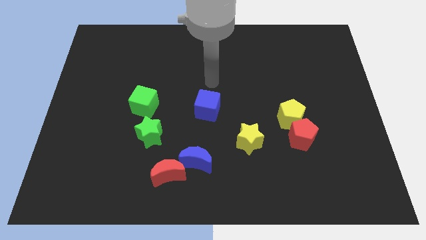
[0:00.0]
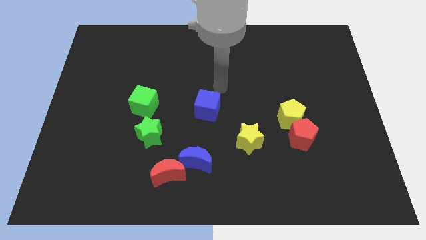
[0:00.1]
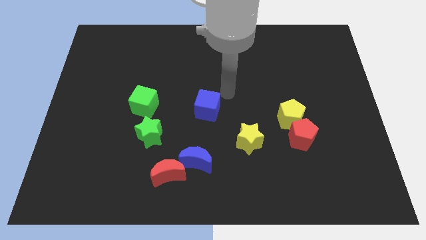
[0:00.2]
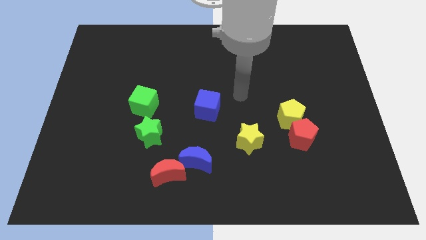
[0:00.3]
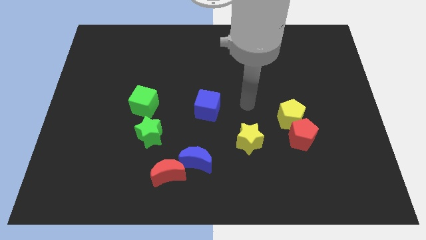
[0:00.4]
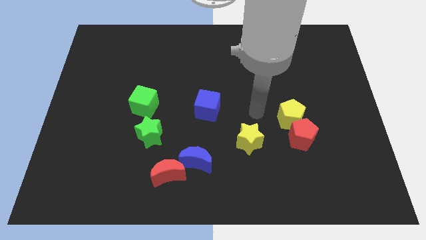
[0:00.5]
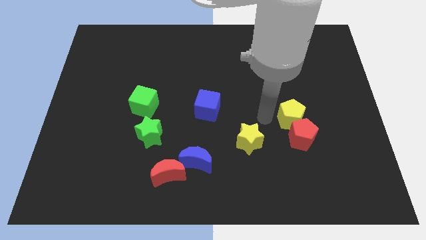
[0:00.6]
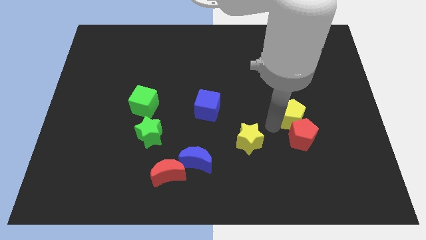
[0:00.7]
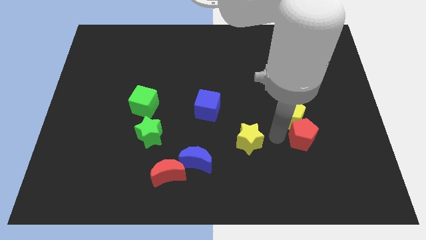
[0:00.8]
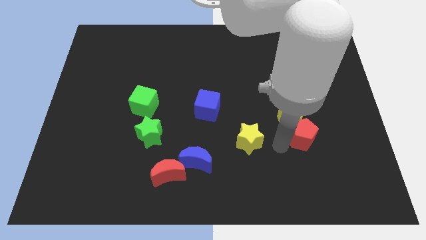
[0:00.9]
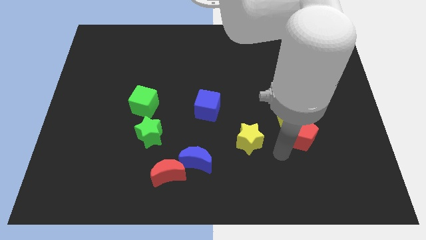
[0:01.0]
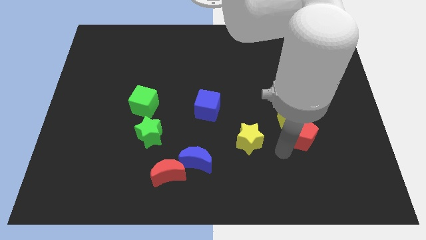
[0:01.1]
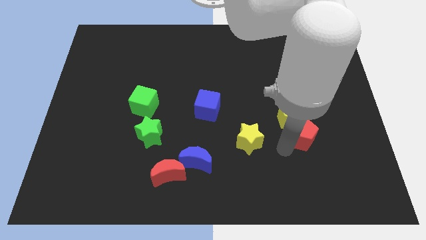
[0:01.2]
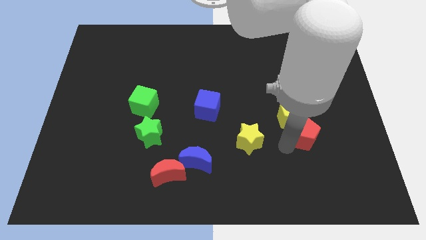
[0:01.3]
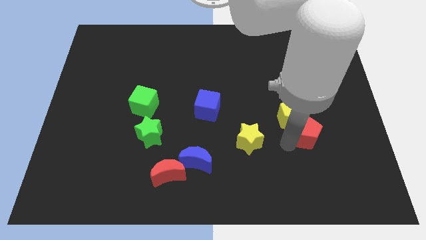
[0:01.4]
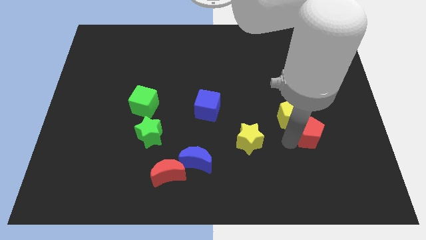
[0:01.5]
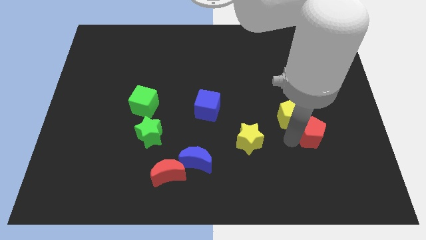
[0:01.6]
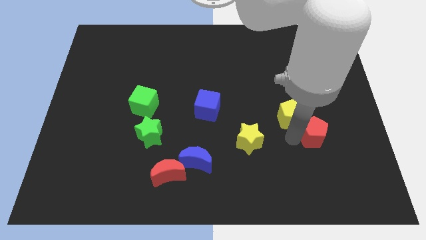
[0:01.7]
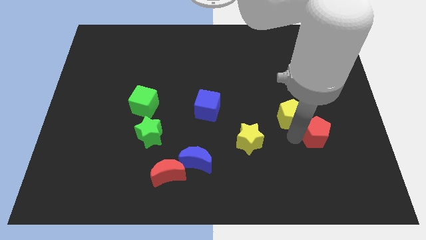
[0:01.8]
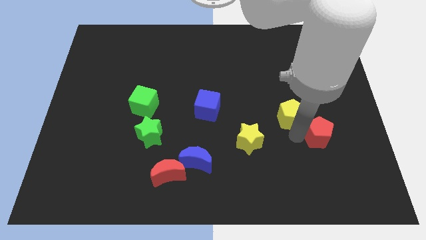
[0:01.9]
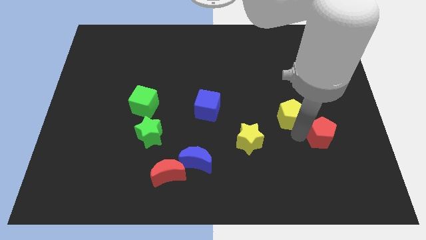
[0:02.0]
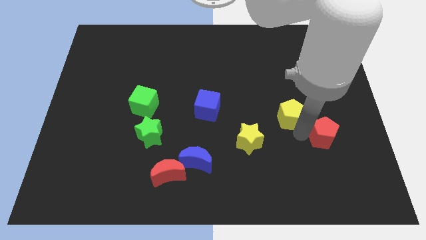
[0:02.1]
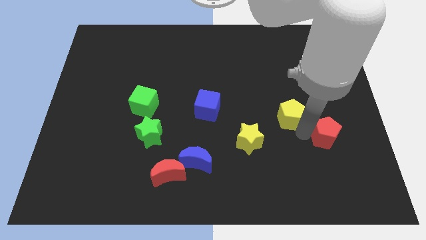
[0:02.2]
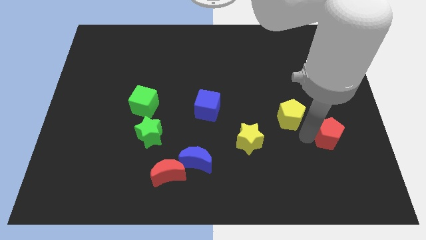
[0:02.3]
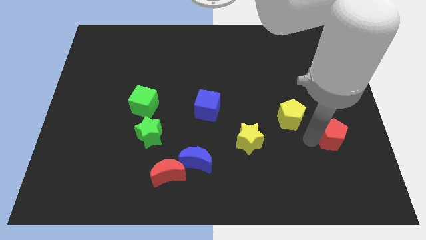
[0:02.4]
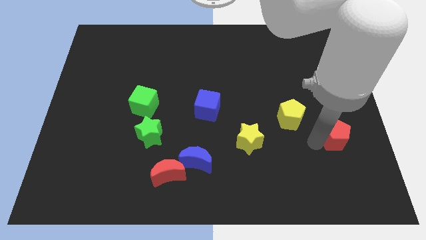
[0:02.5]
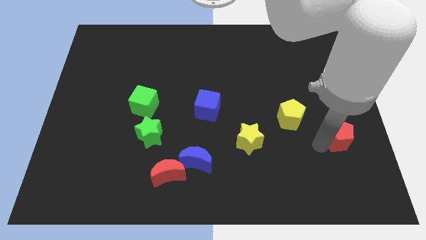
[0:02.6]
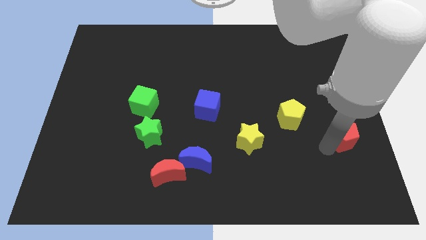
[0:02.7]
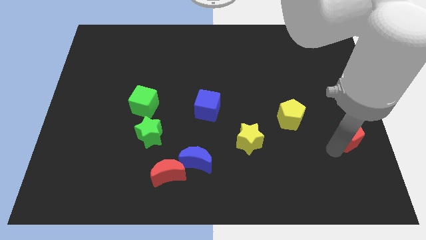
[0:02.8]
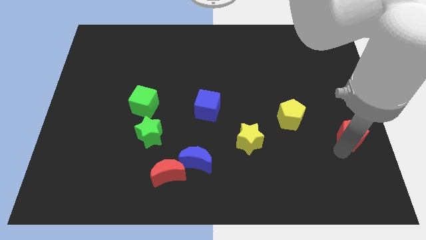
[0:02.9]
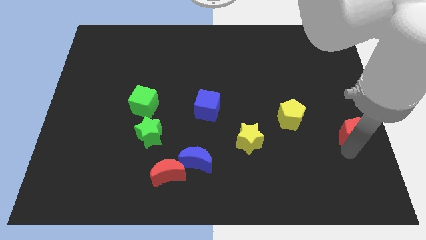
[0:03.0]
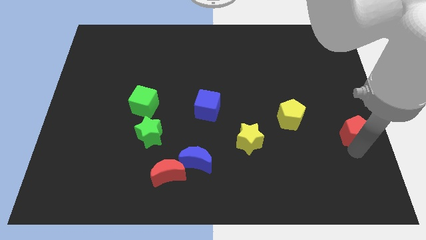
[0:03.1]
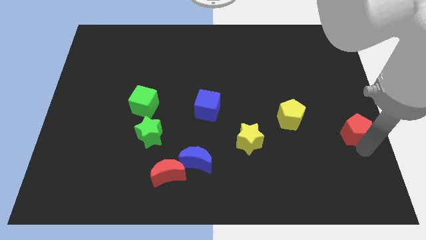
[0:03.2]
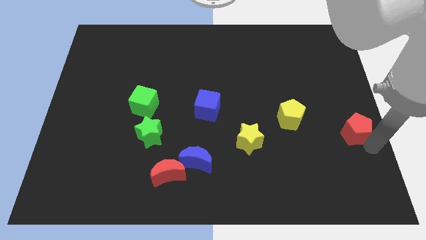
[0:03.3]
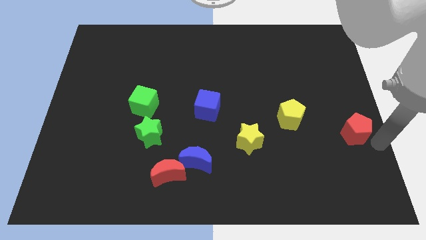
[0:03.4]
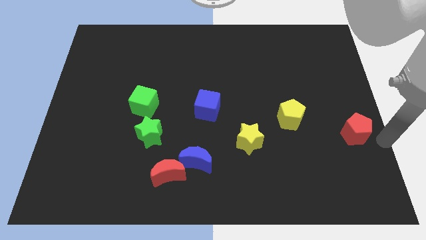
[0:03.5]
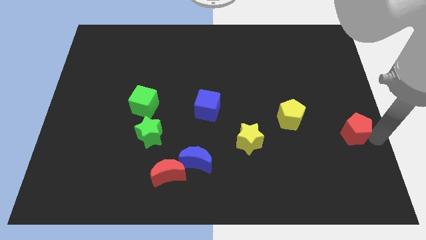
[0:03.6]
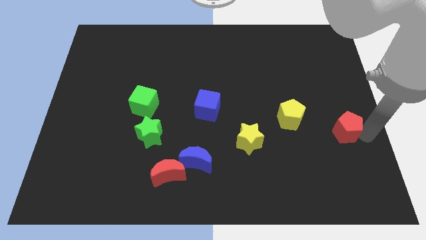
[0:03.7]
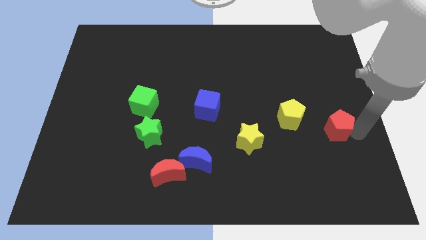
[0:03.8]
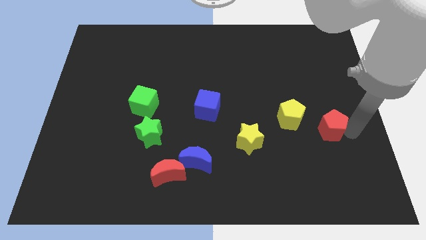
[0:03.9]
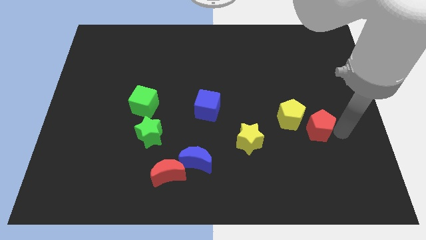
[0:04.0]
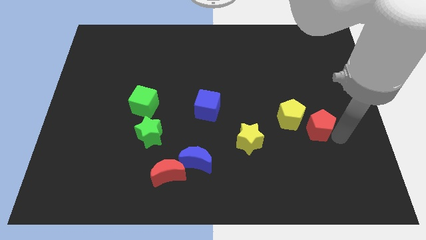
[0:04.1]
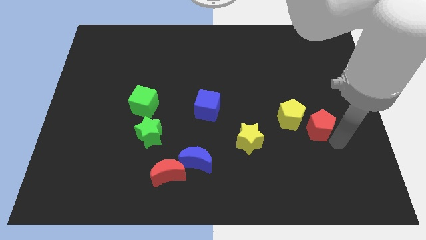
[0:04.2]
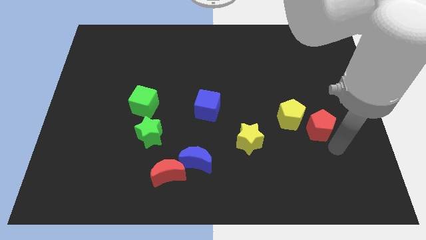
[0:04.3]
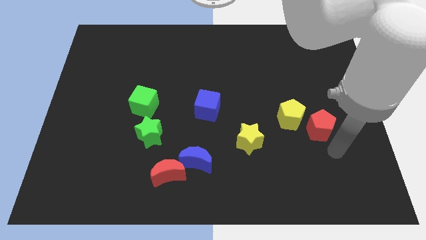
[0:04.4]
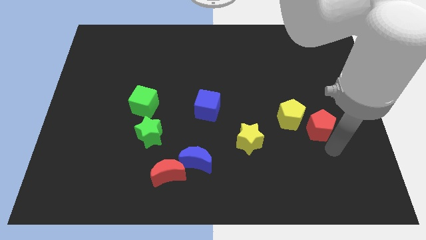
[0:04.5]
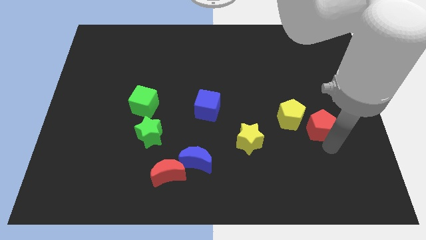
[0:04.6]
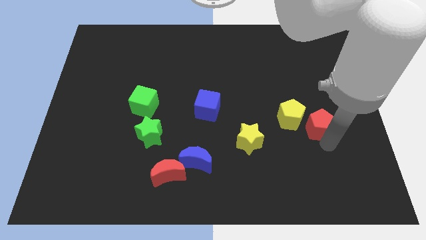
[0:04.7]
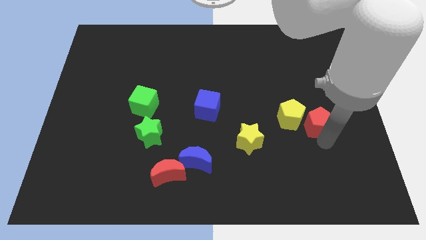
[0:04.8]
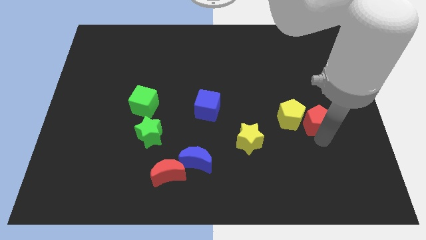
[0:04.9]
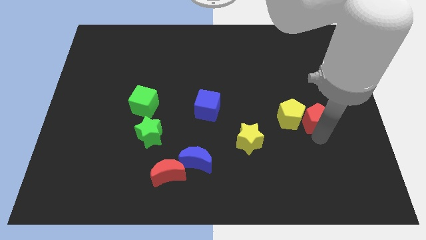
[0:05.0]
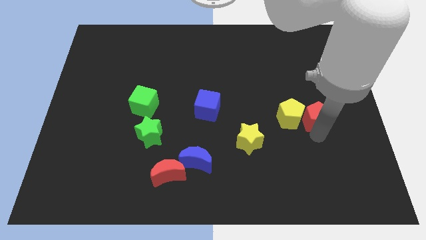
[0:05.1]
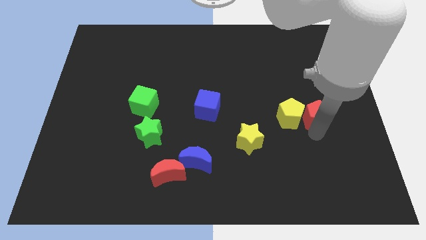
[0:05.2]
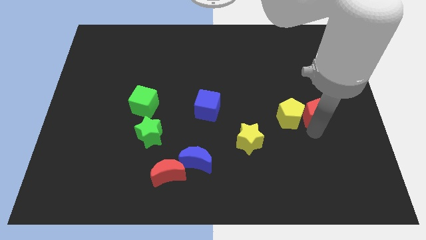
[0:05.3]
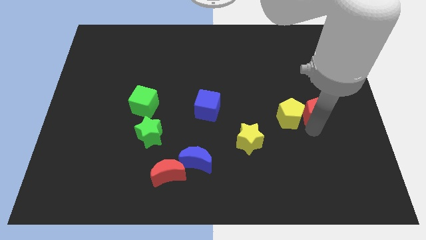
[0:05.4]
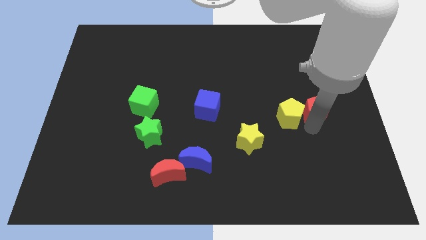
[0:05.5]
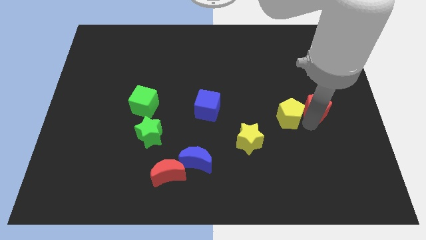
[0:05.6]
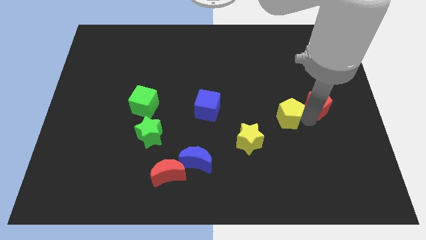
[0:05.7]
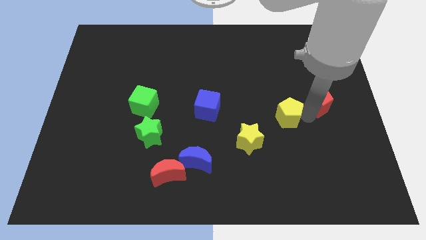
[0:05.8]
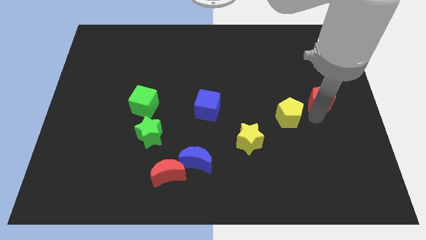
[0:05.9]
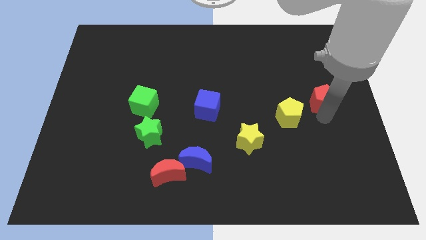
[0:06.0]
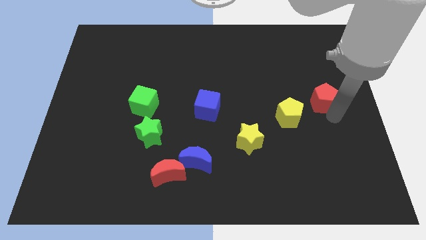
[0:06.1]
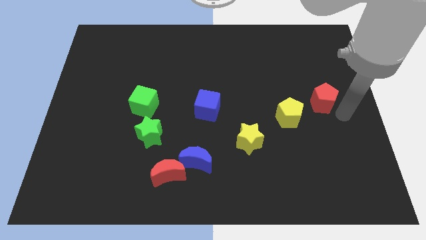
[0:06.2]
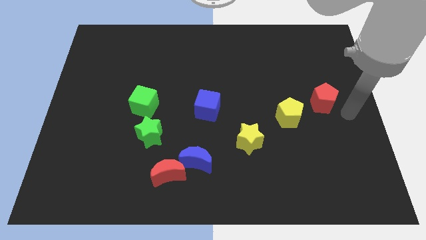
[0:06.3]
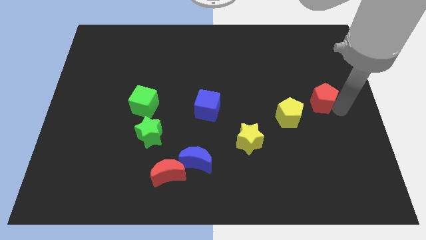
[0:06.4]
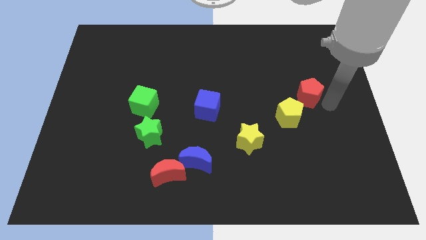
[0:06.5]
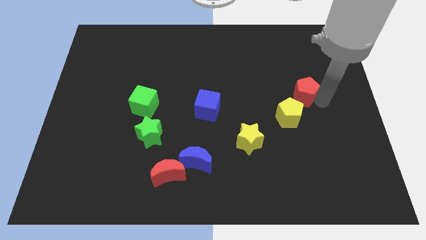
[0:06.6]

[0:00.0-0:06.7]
slide the red pentagon to the top side of the yellow pentagon
